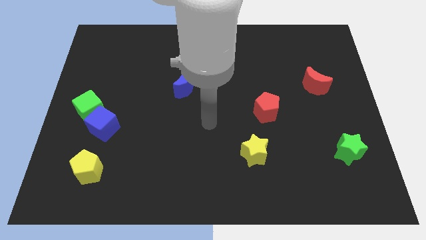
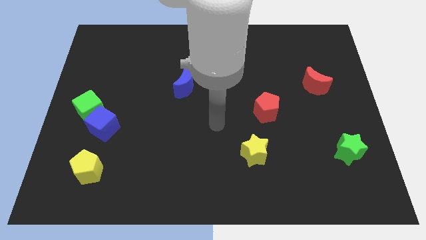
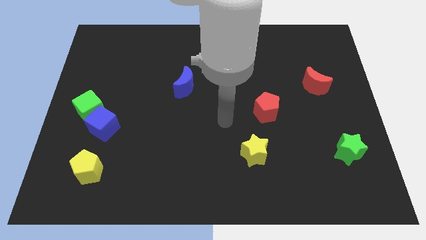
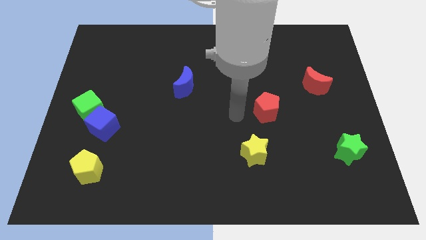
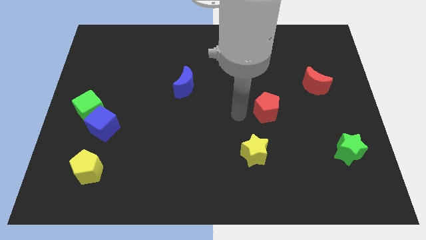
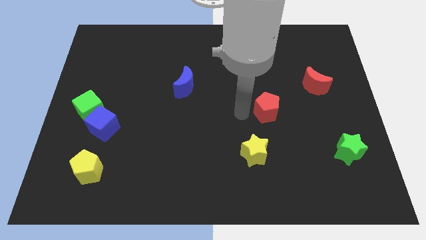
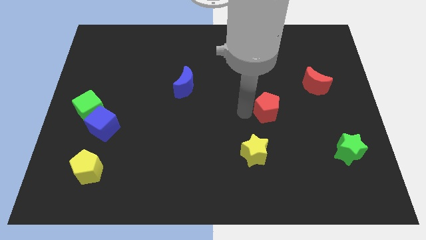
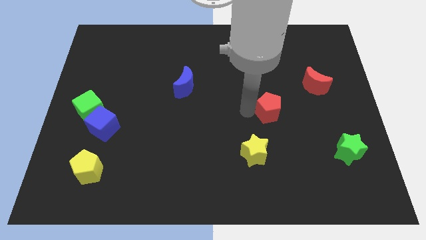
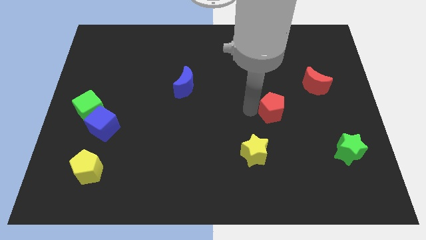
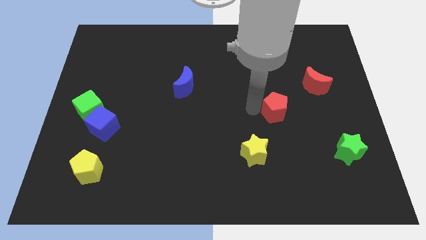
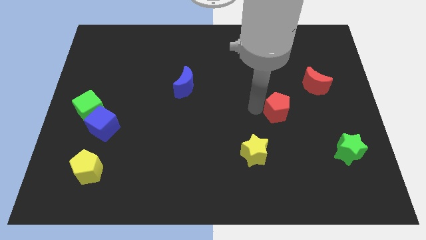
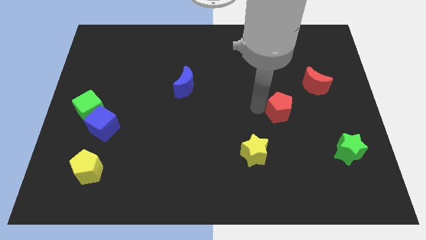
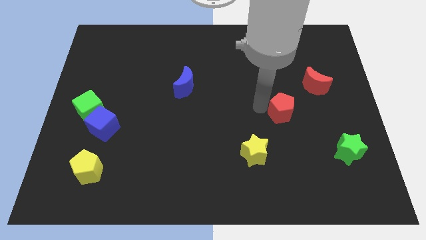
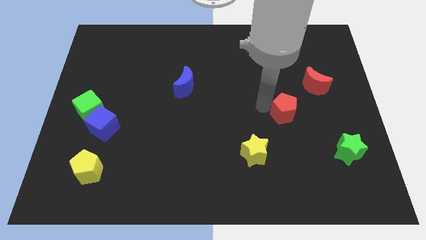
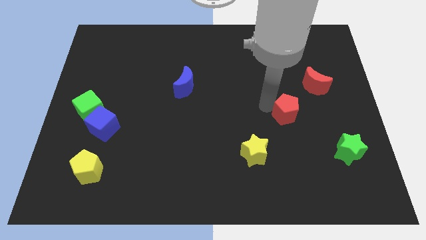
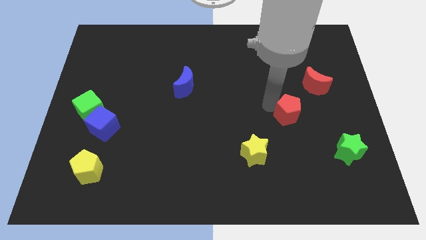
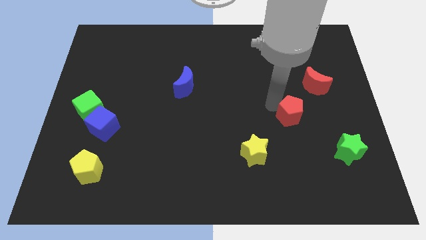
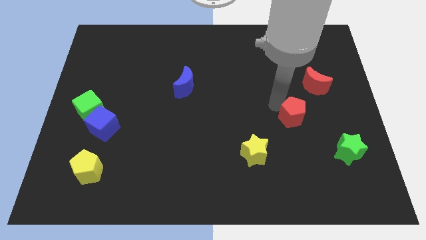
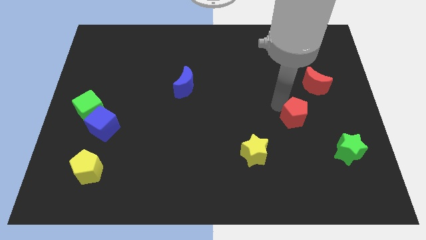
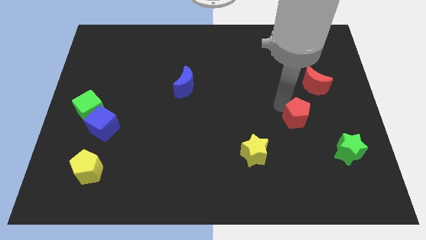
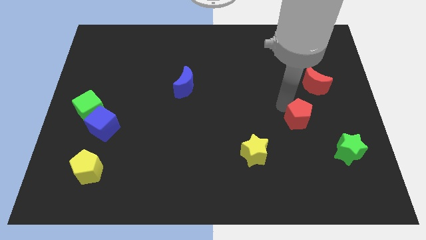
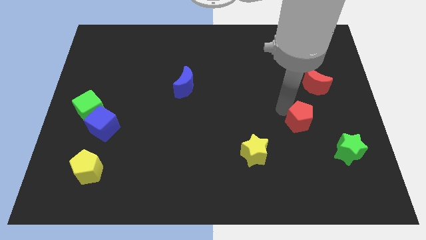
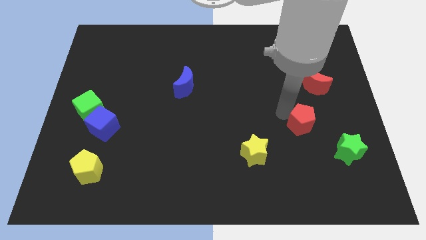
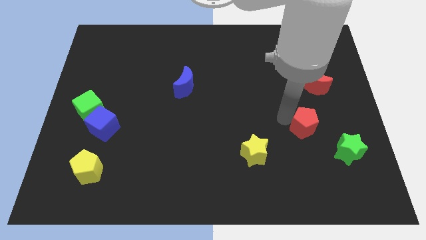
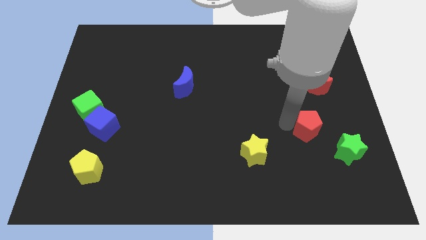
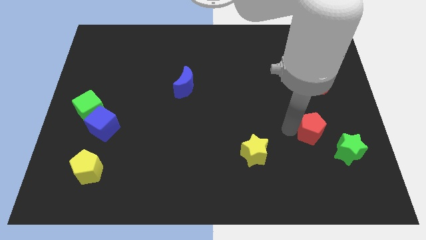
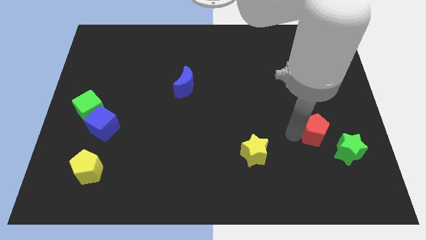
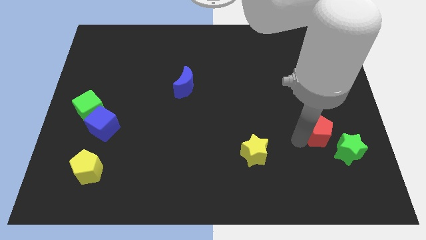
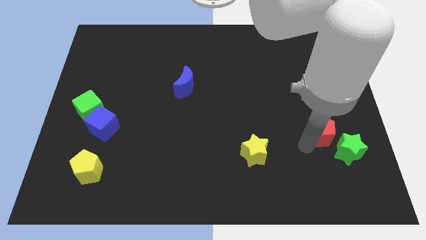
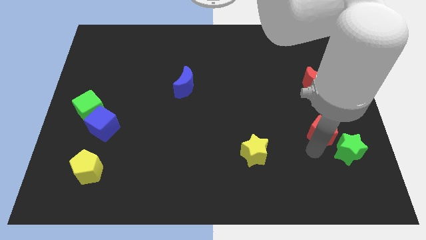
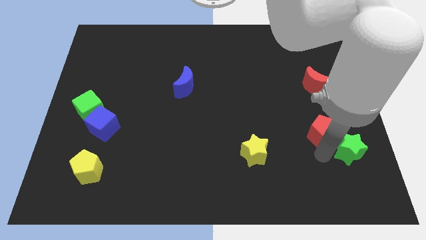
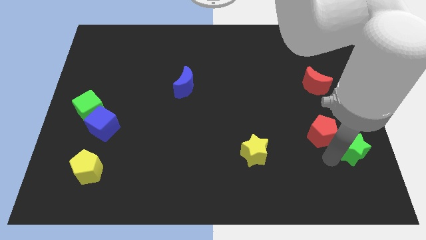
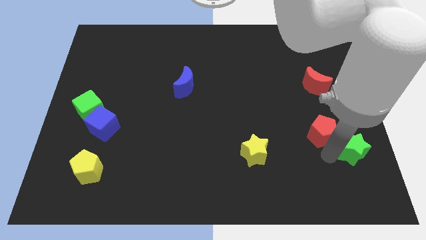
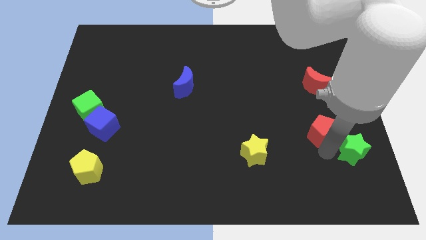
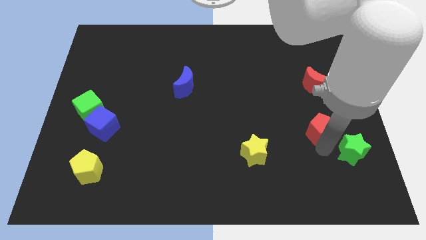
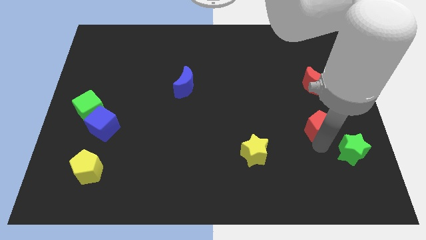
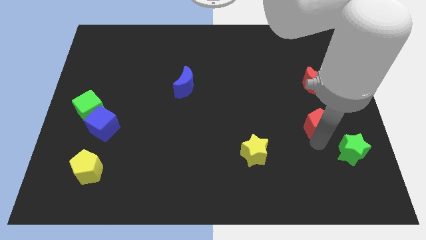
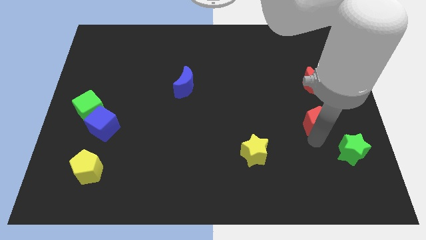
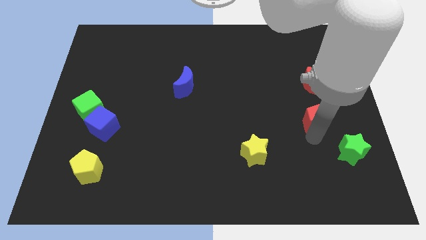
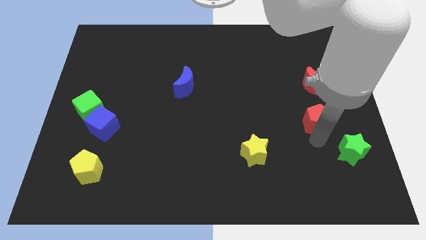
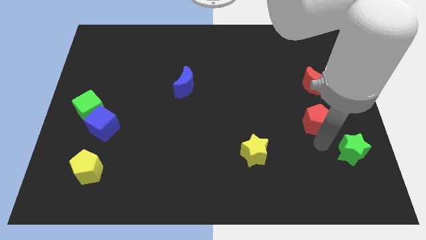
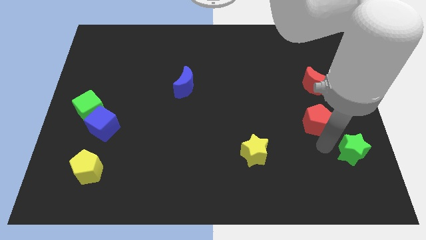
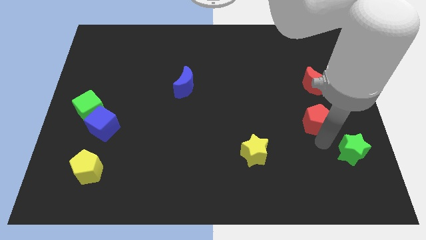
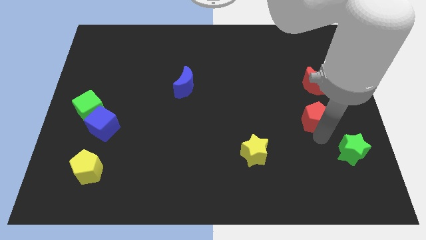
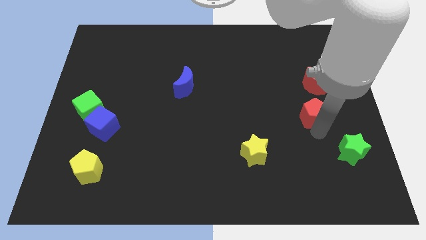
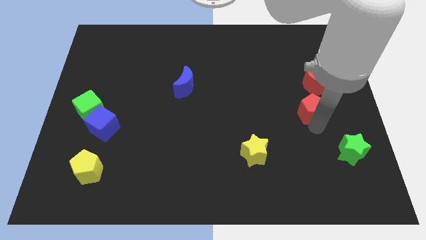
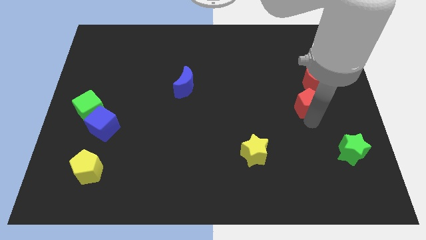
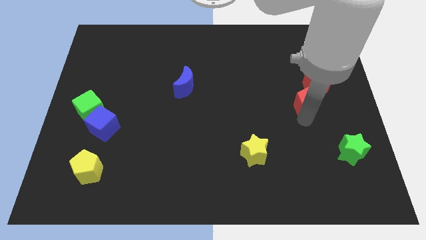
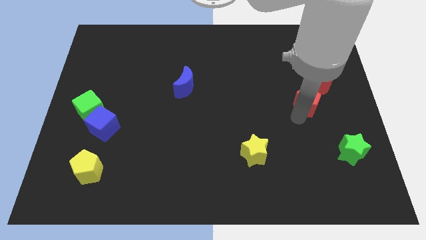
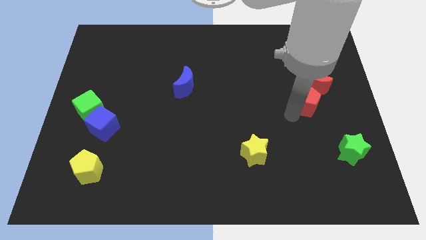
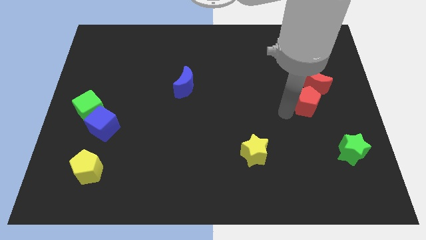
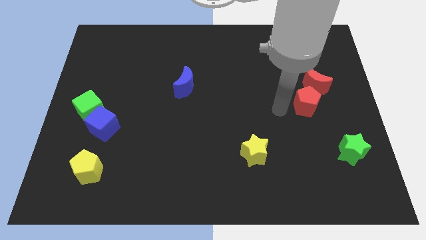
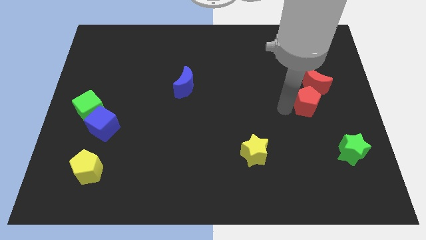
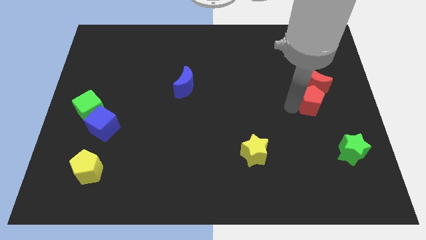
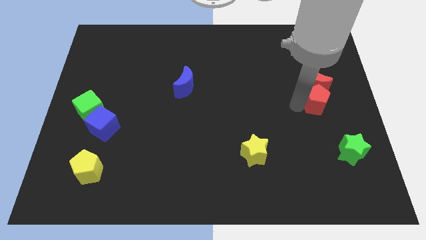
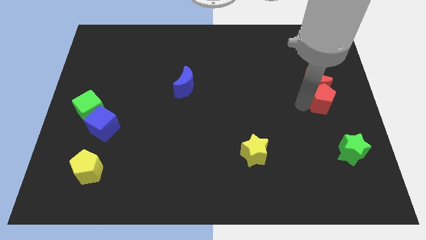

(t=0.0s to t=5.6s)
slide the red pentagon to the right side

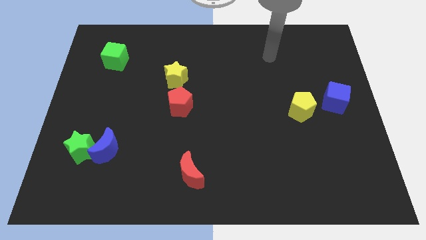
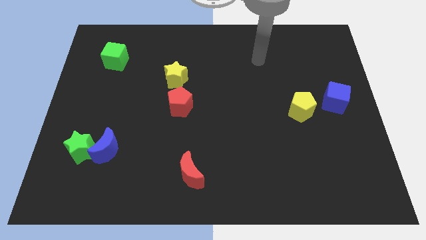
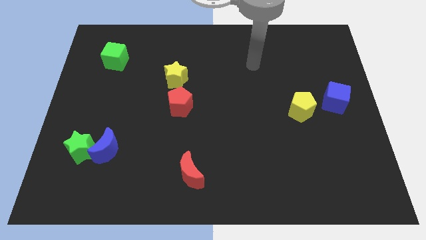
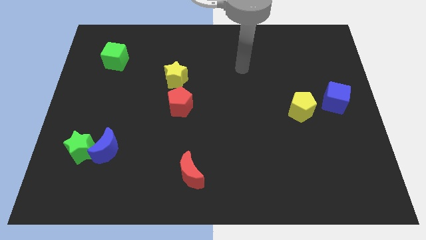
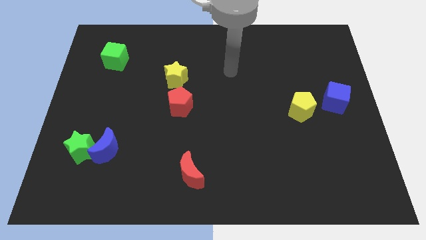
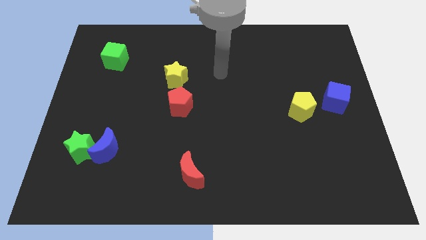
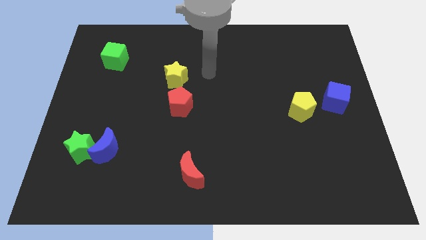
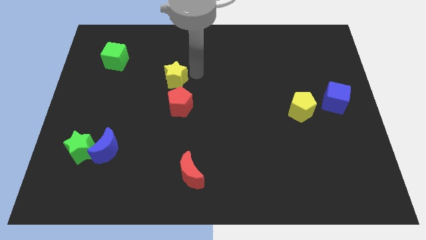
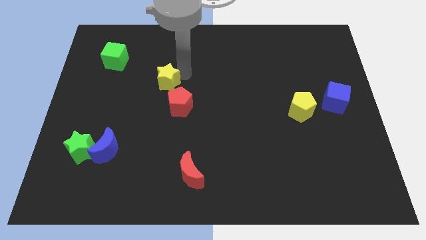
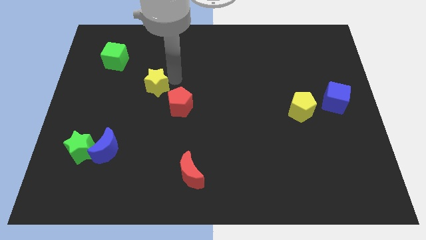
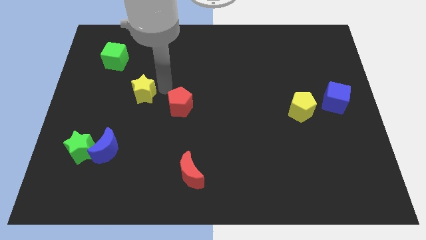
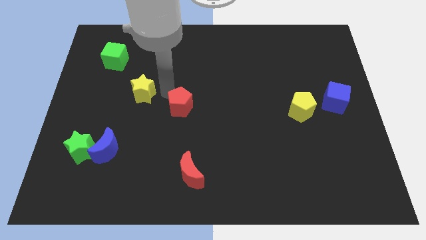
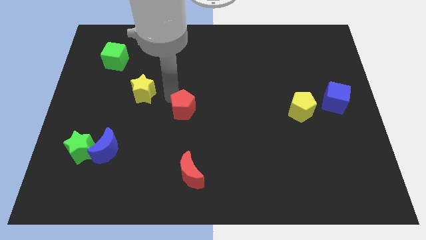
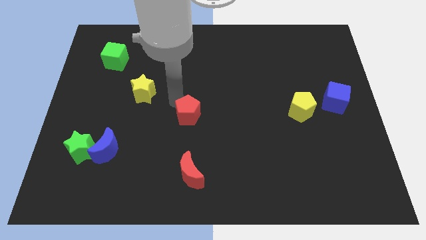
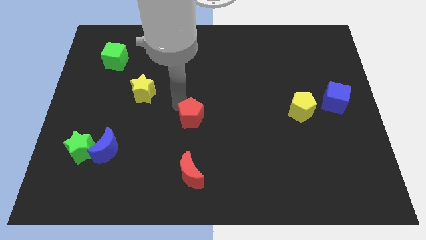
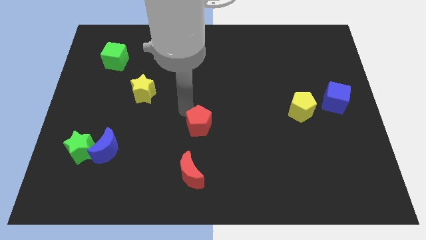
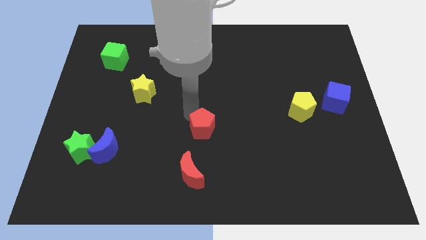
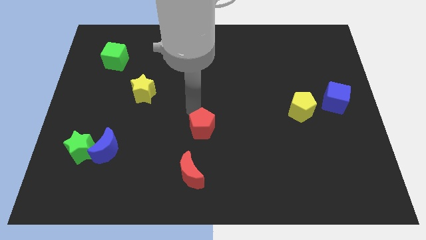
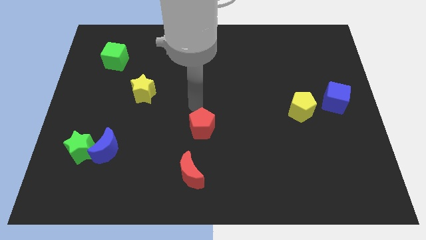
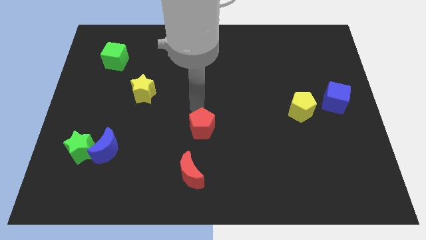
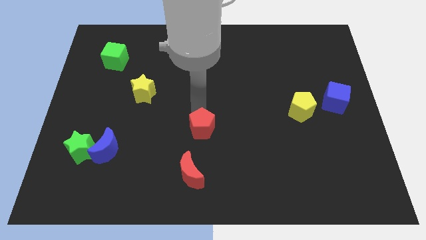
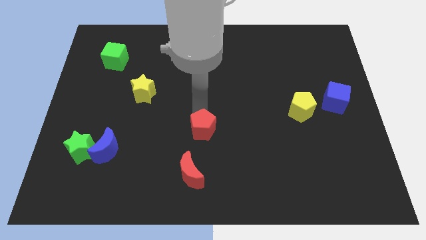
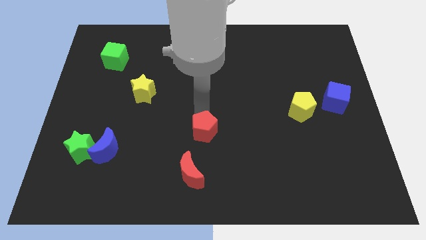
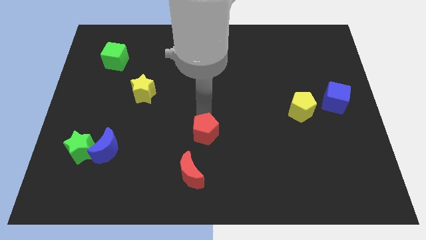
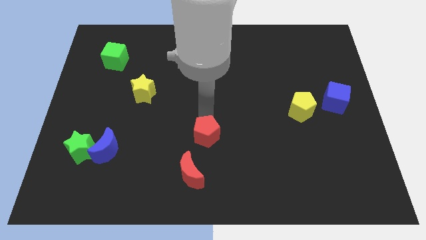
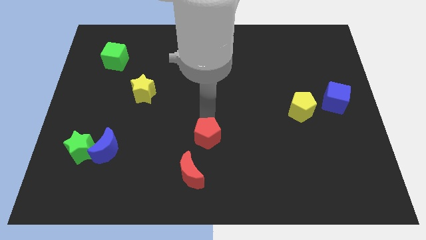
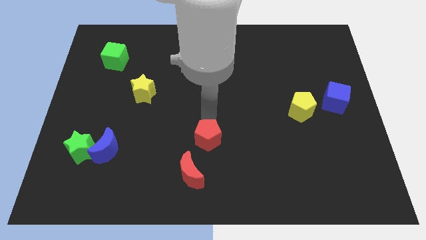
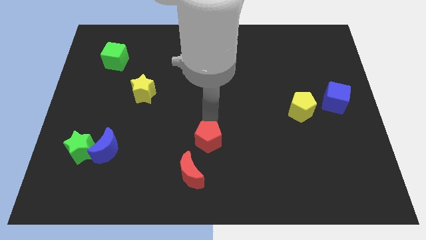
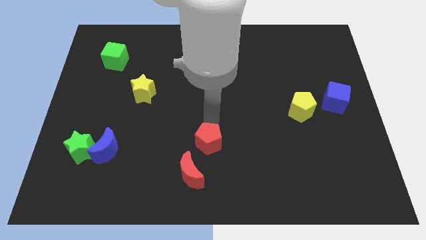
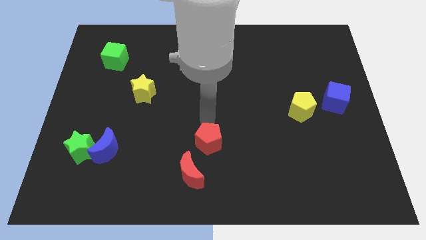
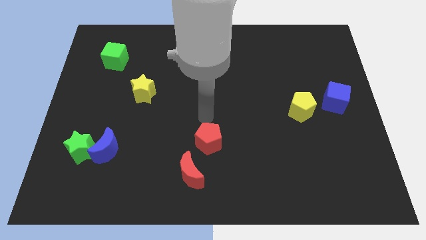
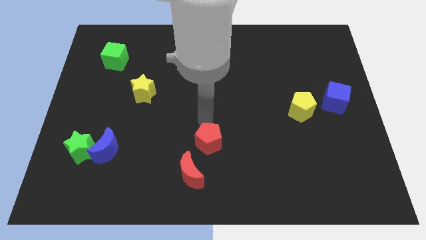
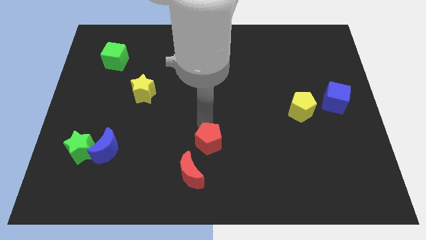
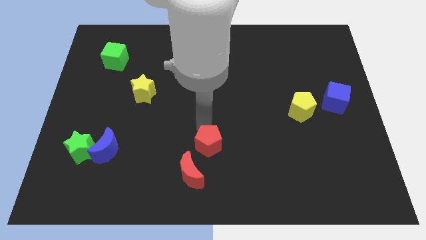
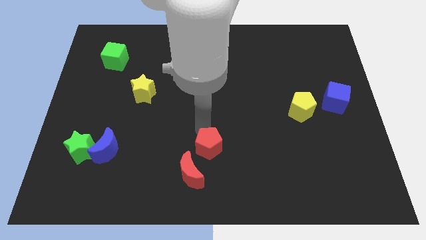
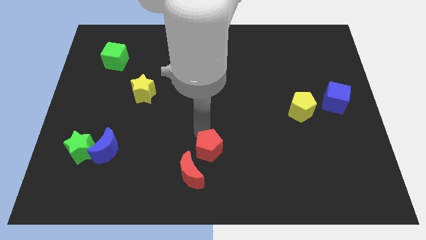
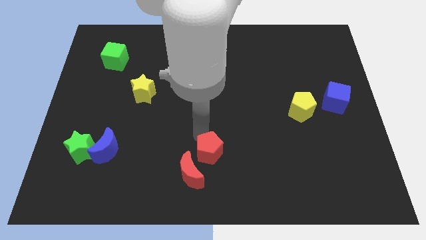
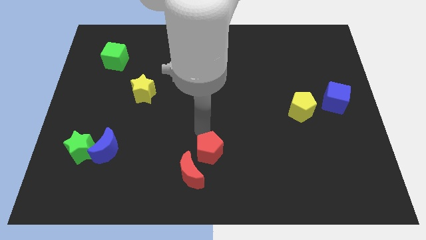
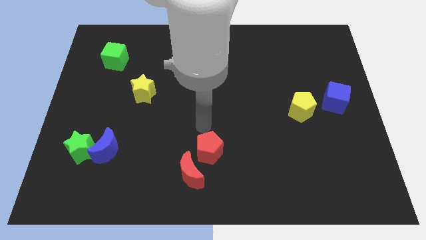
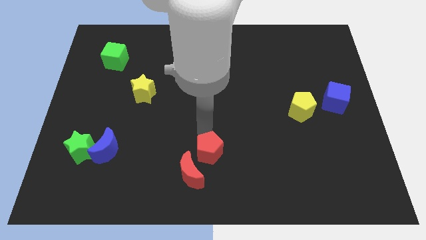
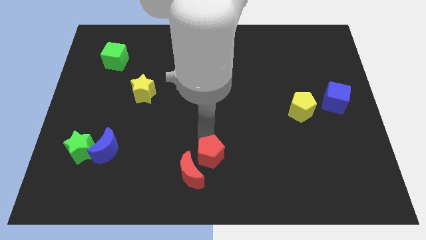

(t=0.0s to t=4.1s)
move the red pentagon to the bottom side
